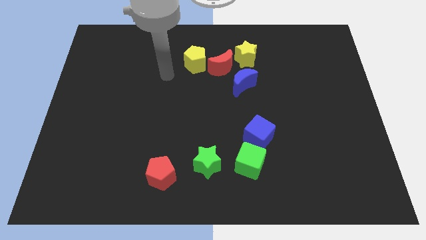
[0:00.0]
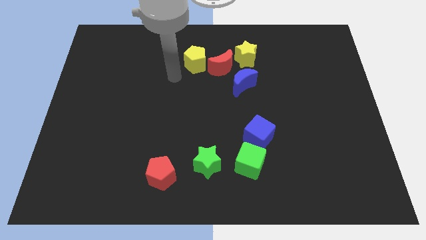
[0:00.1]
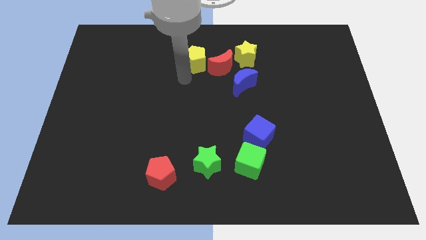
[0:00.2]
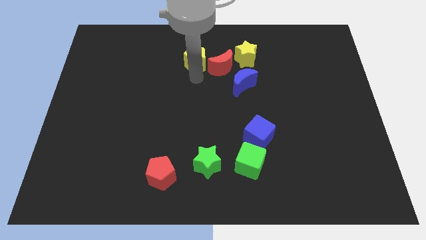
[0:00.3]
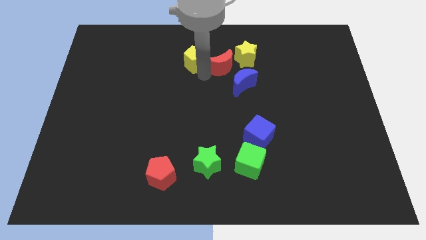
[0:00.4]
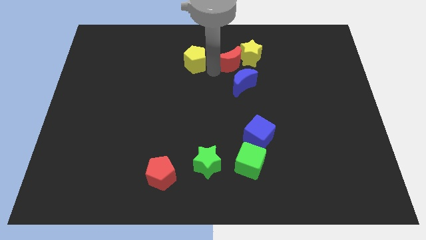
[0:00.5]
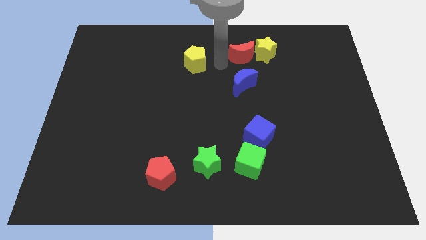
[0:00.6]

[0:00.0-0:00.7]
move the yellow pentagon away from the red moon

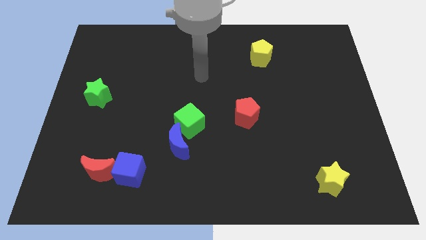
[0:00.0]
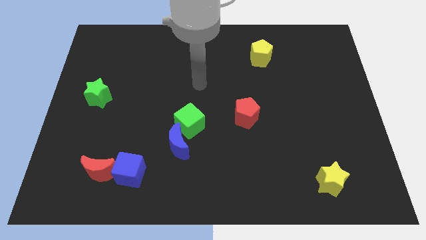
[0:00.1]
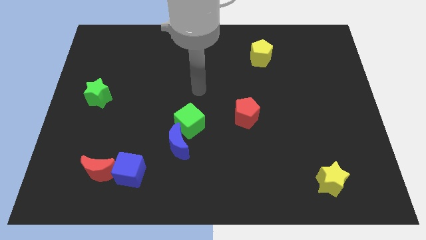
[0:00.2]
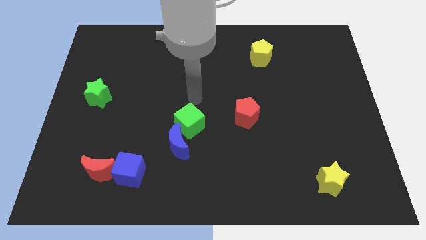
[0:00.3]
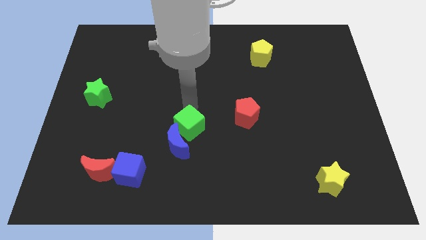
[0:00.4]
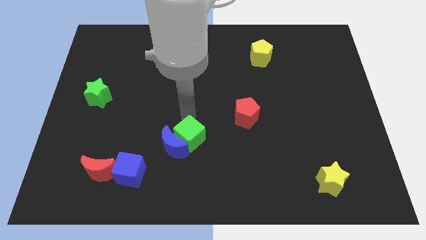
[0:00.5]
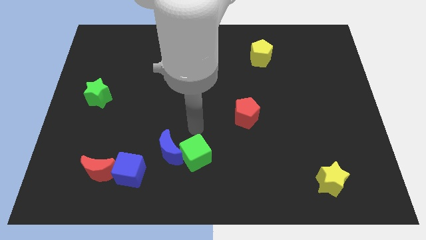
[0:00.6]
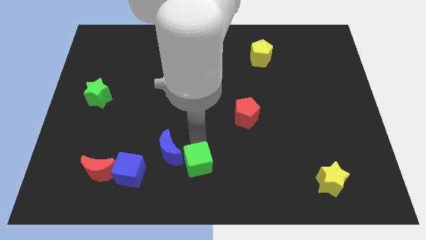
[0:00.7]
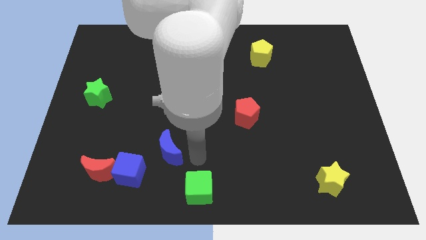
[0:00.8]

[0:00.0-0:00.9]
move the blue moon away from the green cube

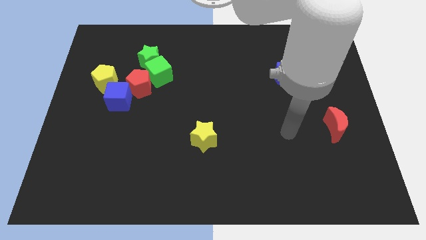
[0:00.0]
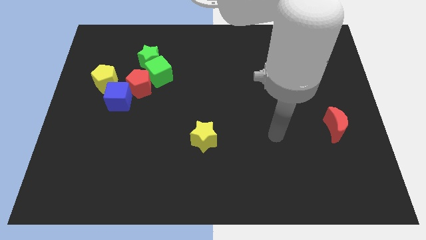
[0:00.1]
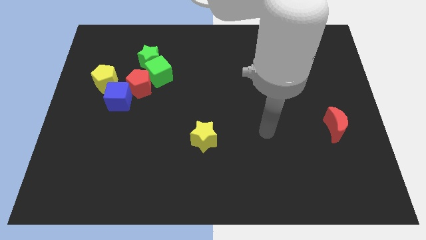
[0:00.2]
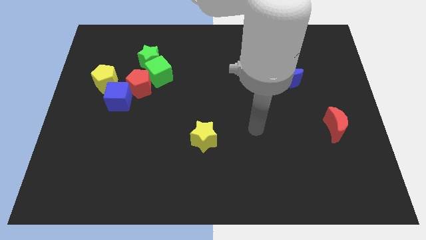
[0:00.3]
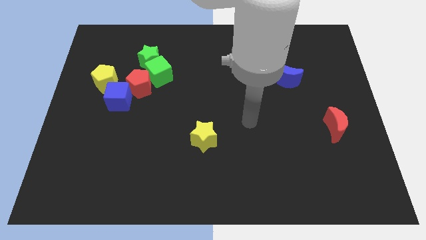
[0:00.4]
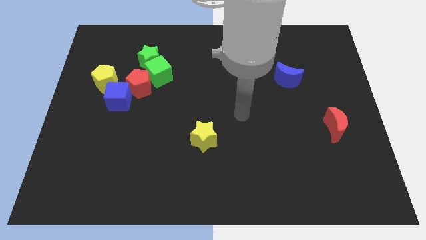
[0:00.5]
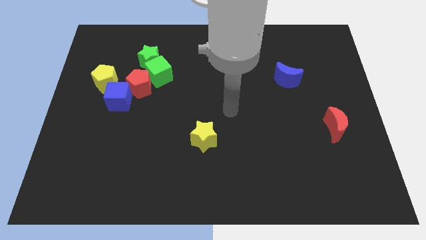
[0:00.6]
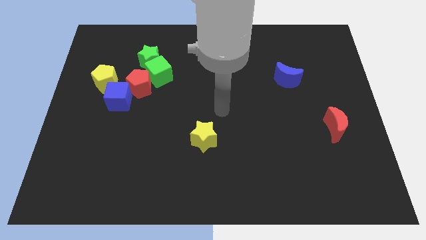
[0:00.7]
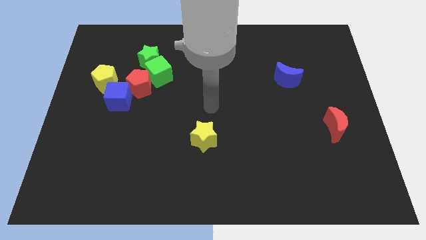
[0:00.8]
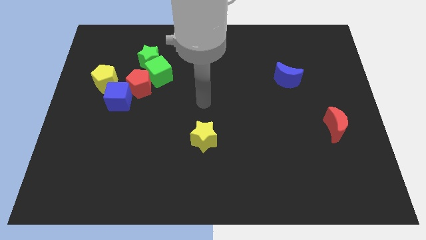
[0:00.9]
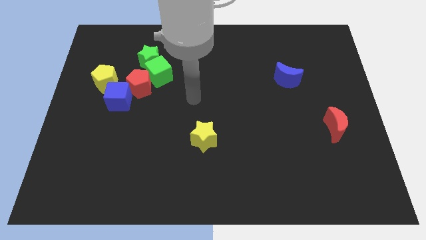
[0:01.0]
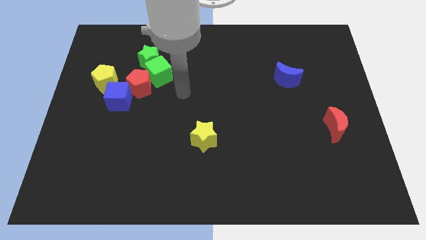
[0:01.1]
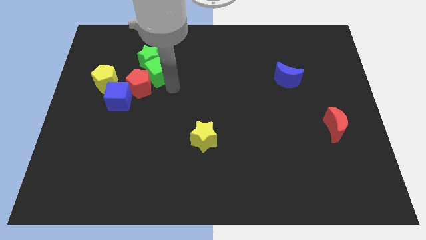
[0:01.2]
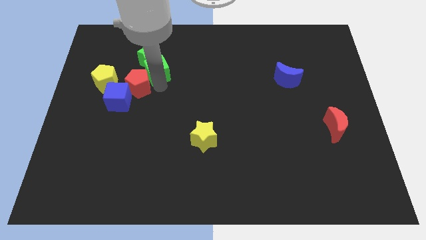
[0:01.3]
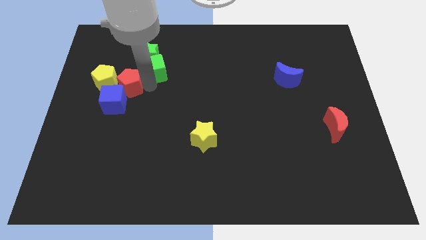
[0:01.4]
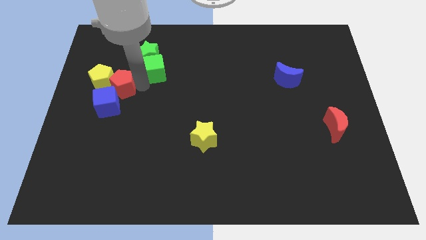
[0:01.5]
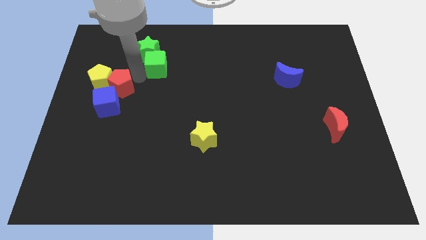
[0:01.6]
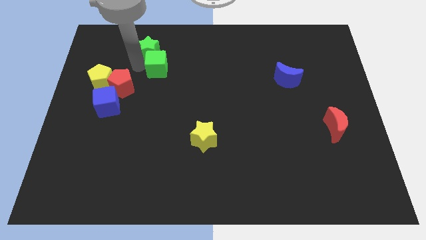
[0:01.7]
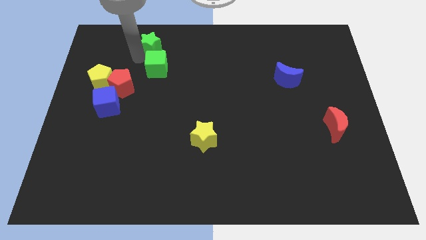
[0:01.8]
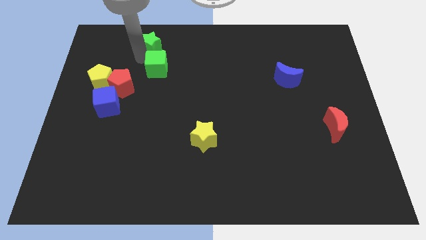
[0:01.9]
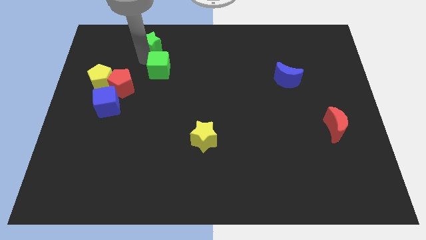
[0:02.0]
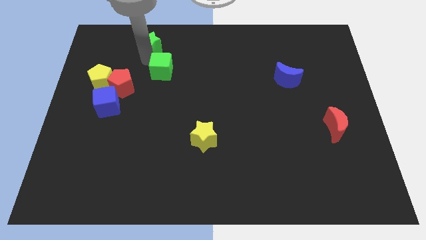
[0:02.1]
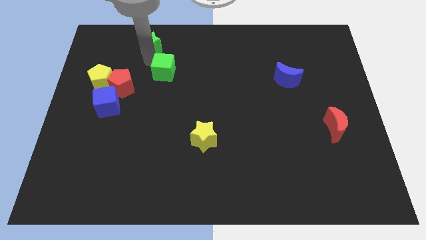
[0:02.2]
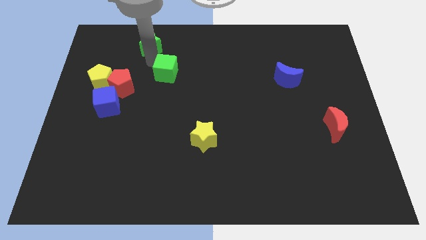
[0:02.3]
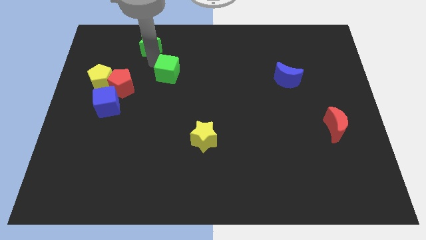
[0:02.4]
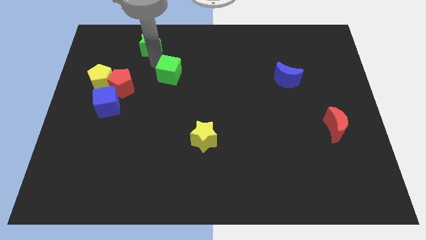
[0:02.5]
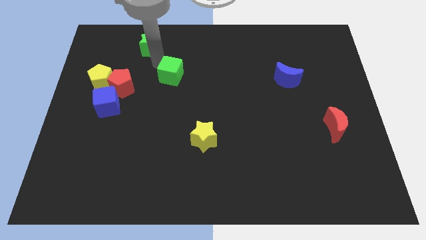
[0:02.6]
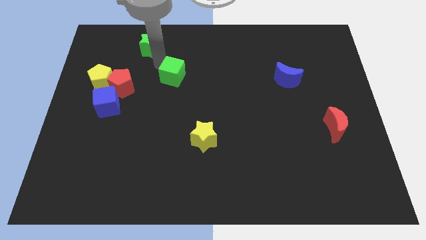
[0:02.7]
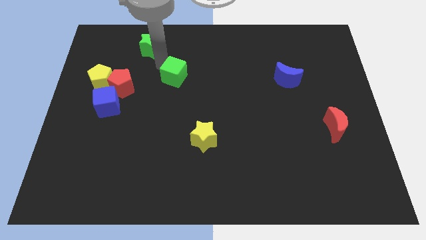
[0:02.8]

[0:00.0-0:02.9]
pull the green cube apart from the green star and red pentagon

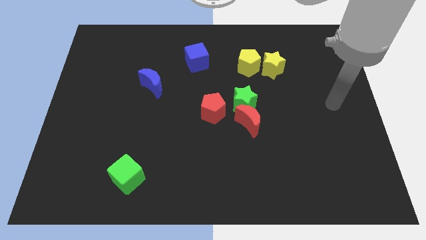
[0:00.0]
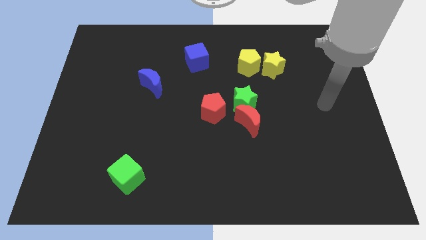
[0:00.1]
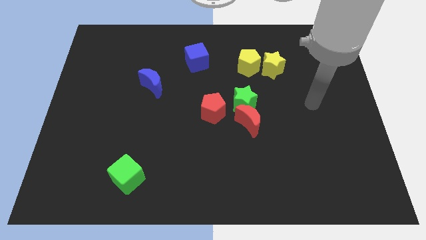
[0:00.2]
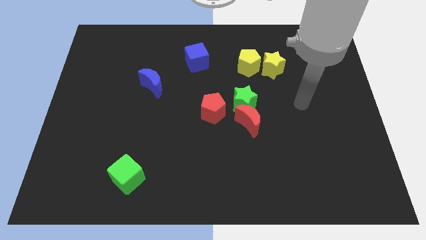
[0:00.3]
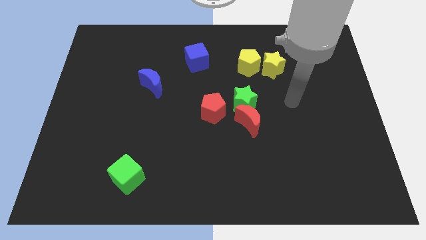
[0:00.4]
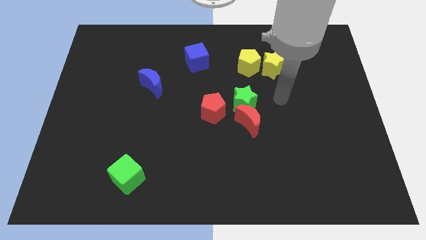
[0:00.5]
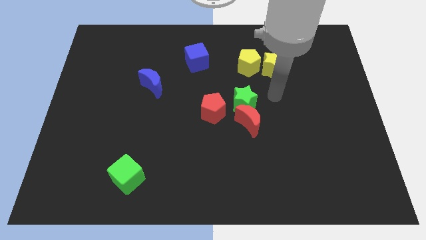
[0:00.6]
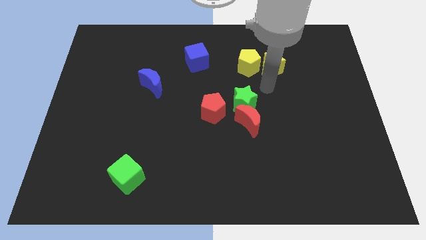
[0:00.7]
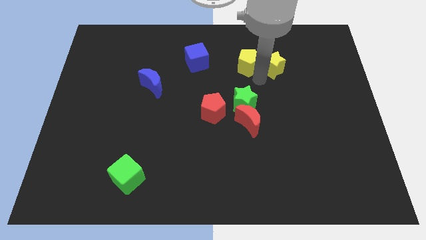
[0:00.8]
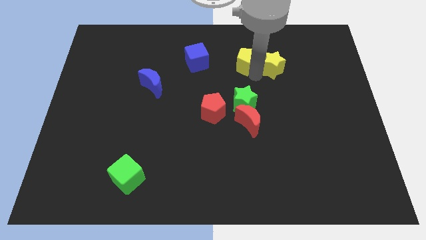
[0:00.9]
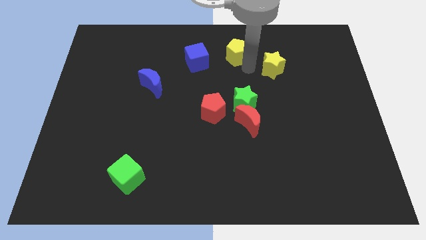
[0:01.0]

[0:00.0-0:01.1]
pull the yellow star apart from the yellow pentagon

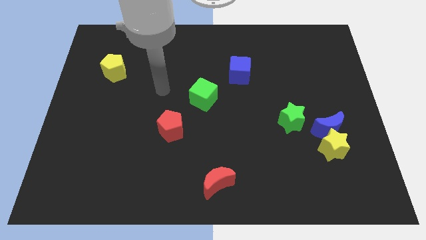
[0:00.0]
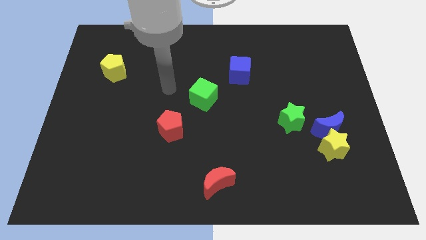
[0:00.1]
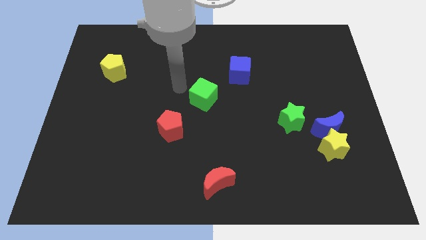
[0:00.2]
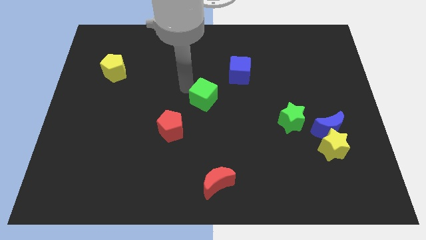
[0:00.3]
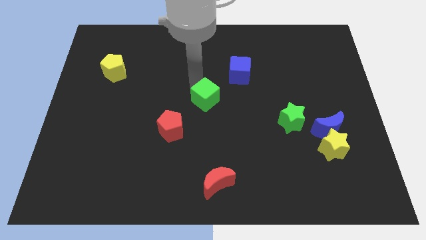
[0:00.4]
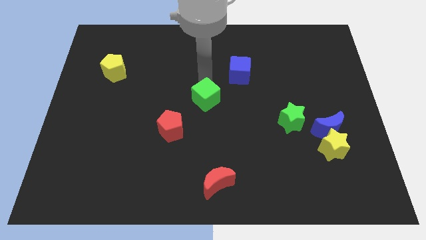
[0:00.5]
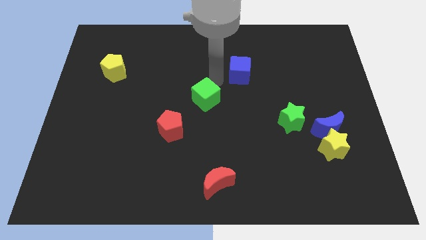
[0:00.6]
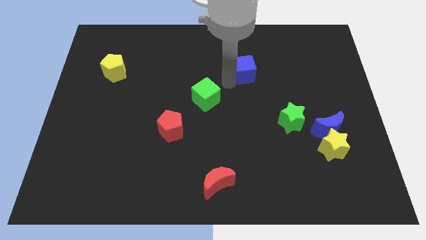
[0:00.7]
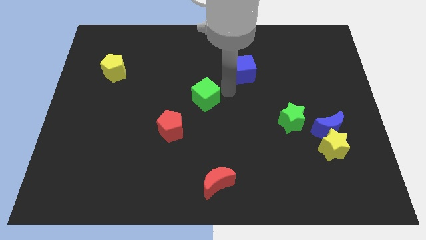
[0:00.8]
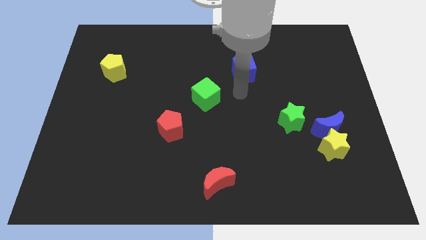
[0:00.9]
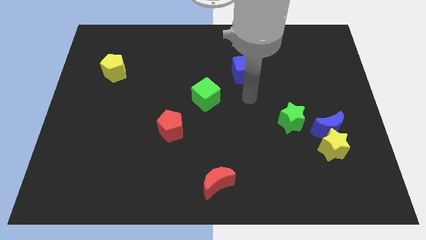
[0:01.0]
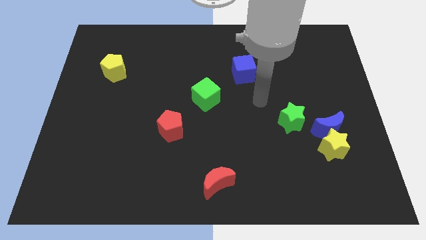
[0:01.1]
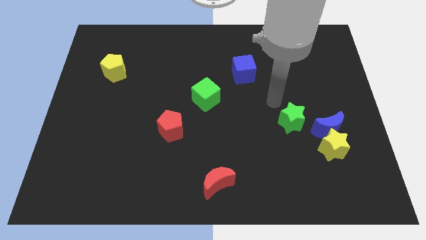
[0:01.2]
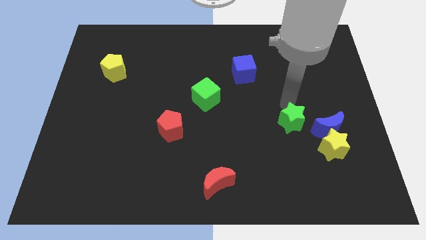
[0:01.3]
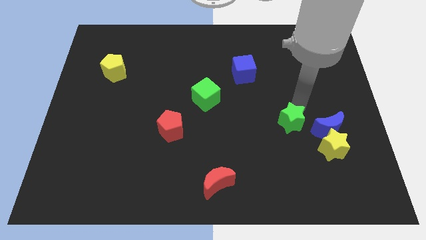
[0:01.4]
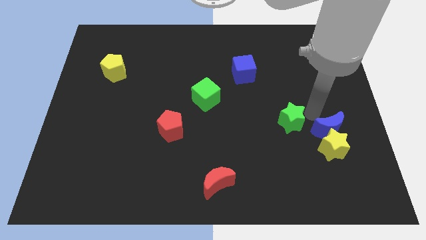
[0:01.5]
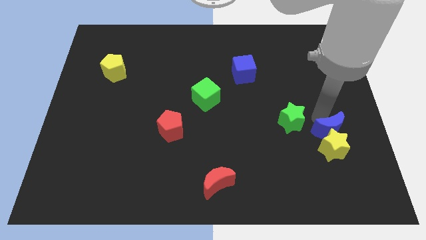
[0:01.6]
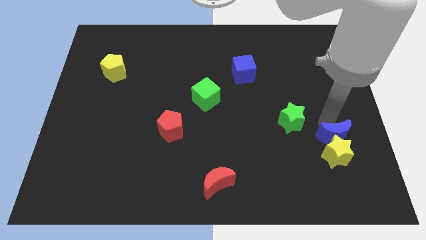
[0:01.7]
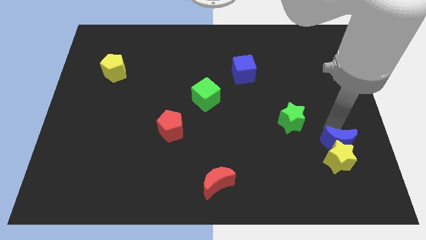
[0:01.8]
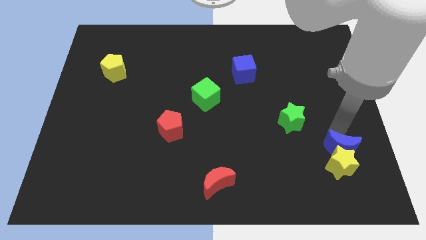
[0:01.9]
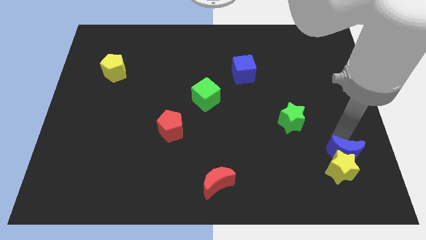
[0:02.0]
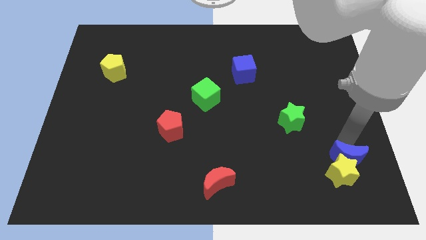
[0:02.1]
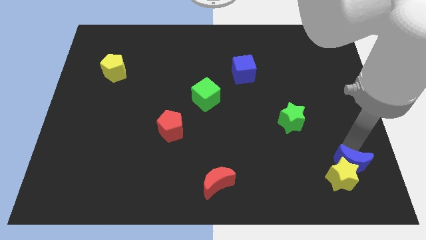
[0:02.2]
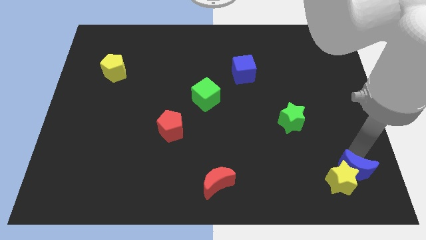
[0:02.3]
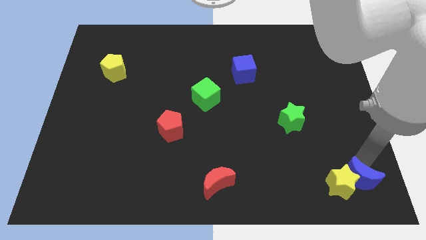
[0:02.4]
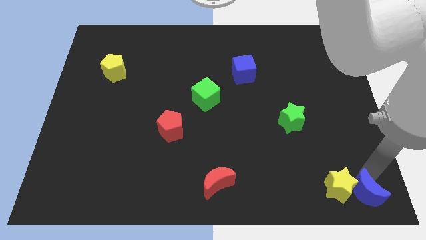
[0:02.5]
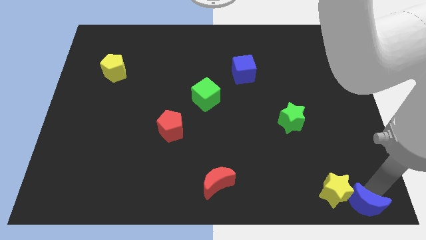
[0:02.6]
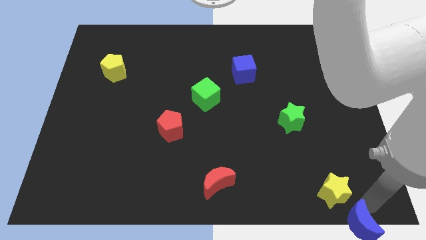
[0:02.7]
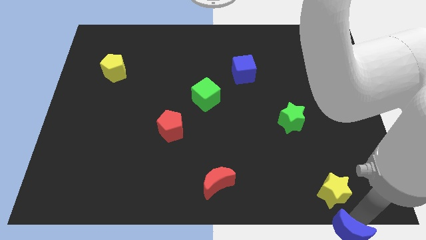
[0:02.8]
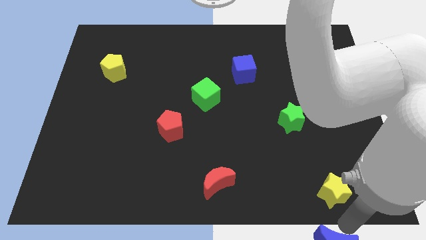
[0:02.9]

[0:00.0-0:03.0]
separate the yellow star from the blue moon

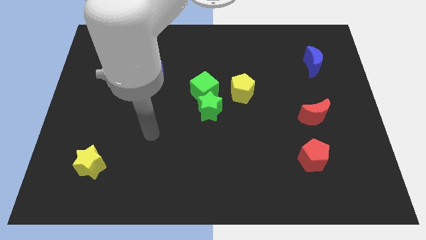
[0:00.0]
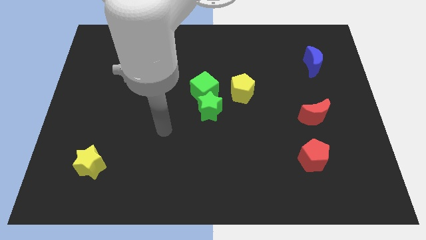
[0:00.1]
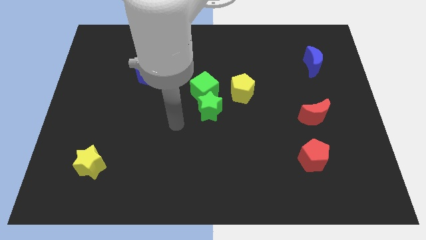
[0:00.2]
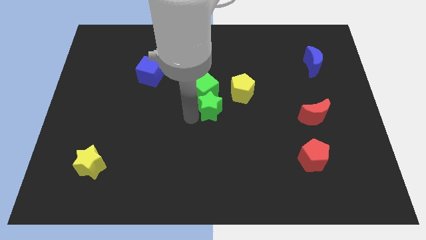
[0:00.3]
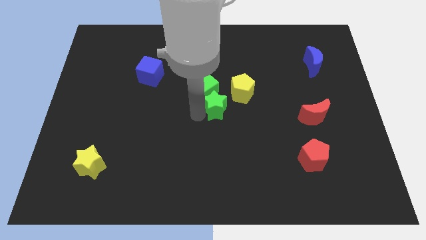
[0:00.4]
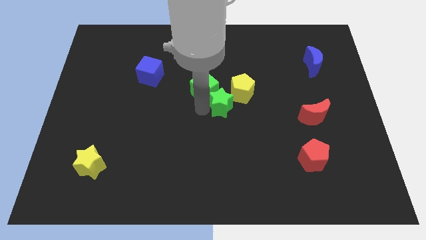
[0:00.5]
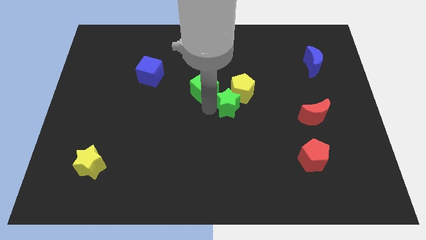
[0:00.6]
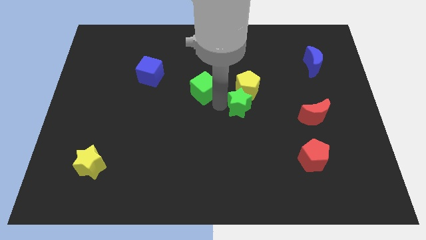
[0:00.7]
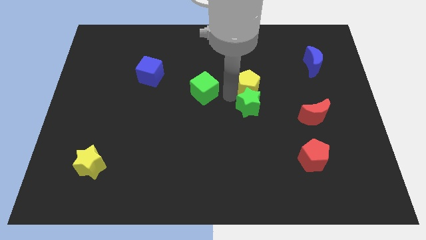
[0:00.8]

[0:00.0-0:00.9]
separate the green cube from the green star and yellow pentagon

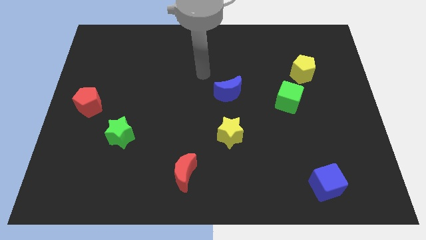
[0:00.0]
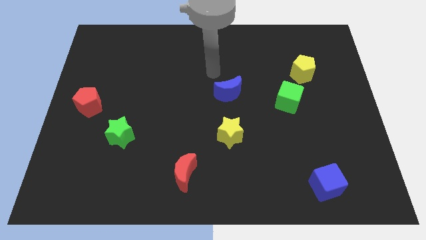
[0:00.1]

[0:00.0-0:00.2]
separate the green cube from the yellow pentagon
